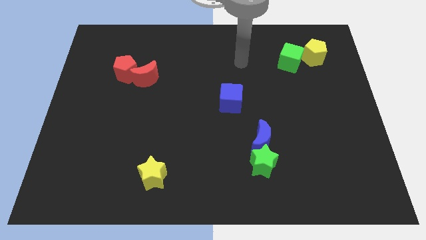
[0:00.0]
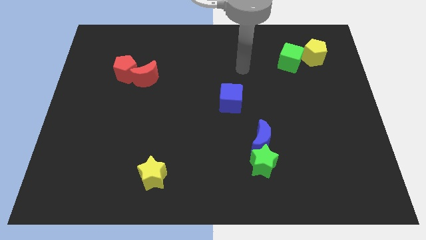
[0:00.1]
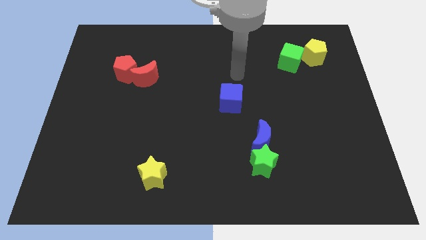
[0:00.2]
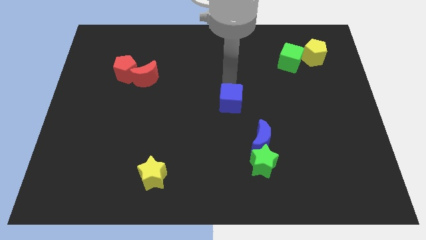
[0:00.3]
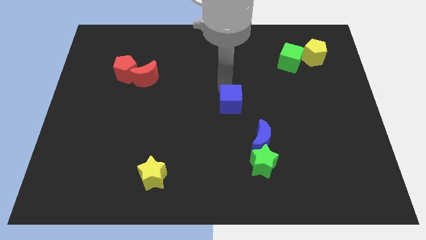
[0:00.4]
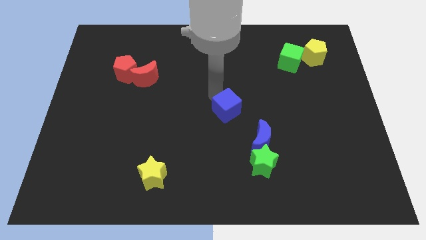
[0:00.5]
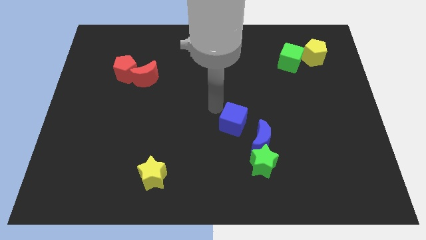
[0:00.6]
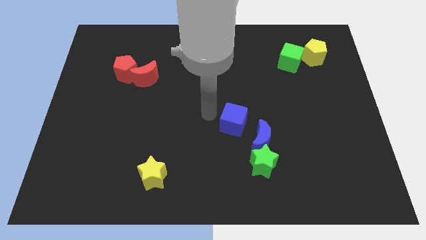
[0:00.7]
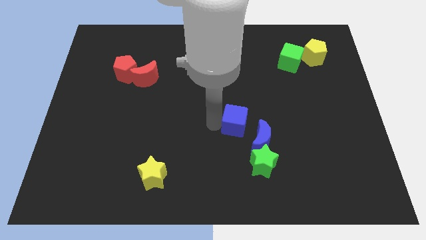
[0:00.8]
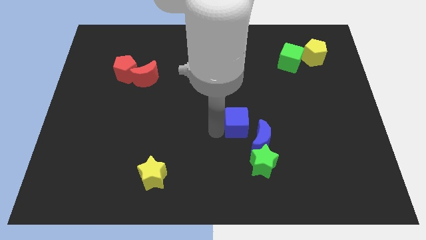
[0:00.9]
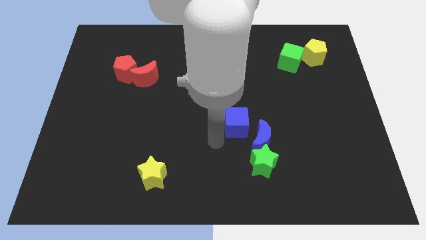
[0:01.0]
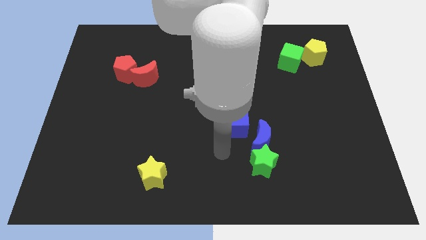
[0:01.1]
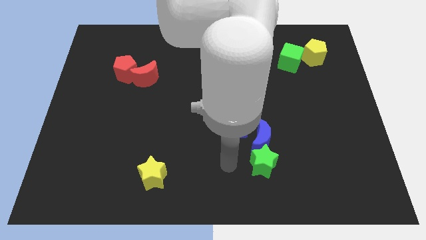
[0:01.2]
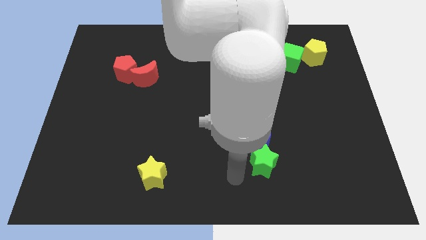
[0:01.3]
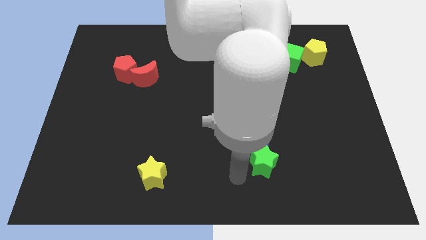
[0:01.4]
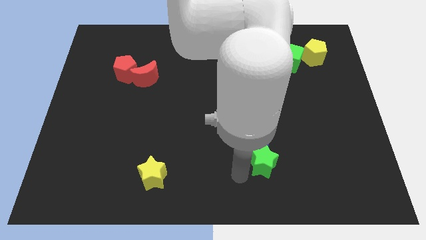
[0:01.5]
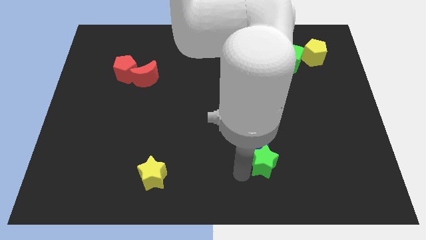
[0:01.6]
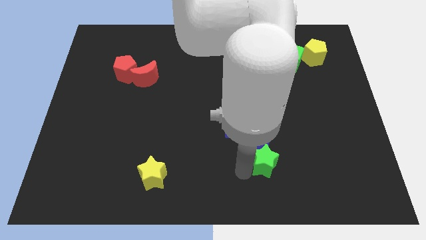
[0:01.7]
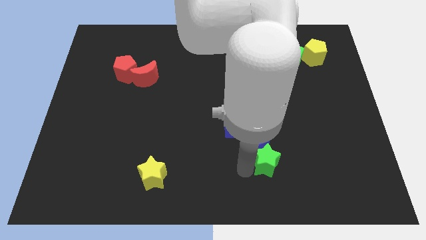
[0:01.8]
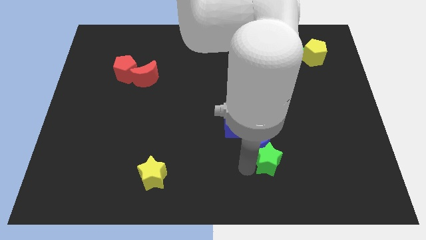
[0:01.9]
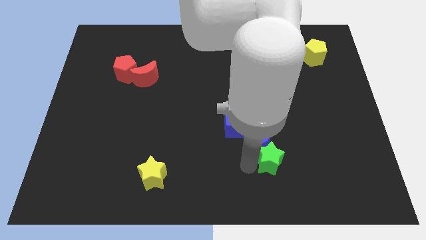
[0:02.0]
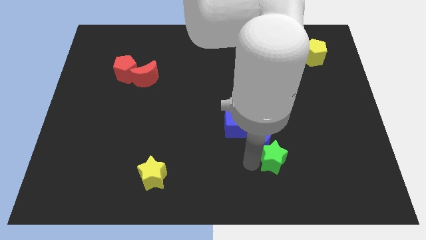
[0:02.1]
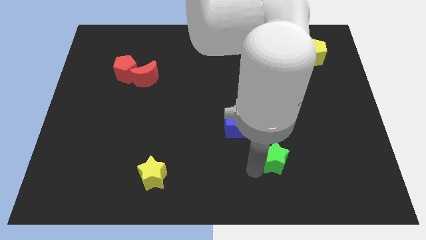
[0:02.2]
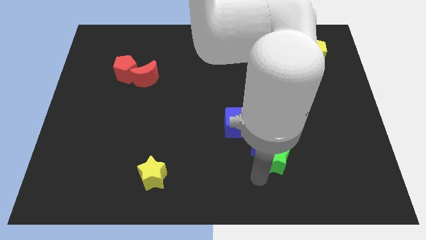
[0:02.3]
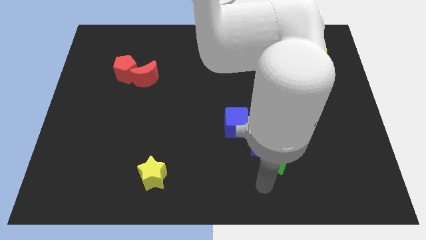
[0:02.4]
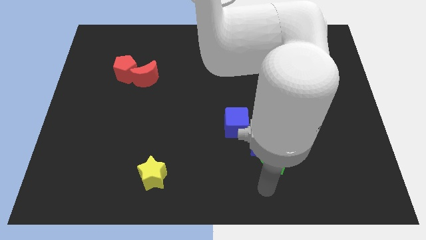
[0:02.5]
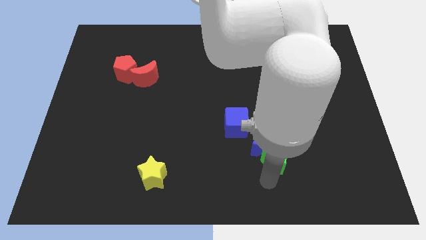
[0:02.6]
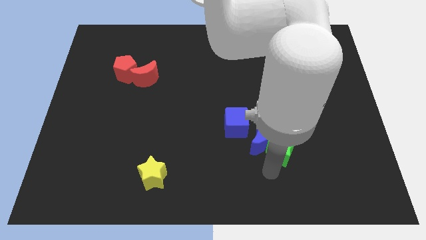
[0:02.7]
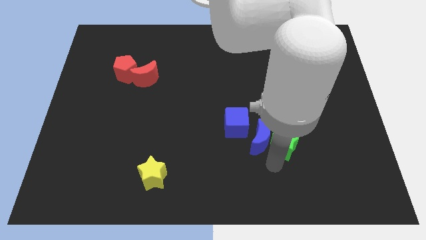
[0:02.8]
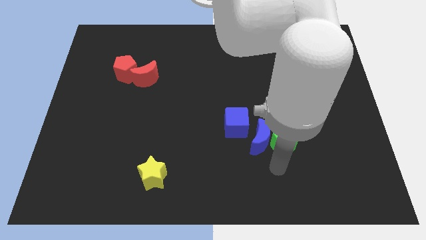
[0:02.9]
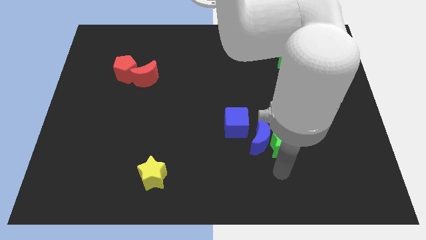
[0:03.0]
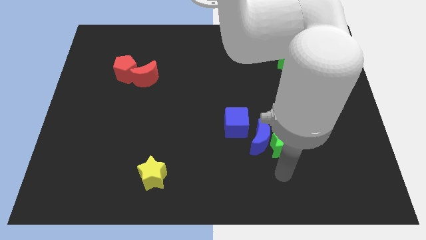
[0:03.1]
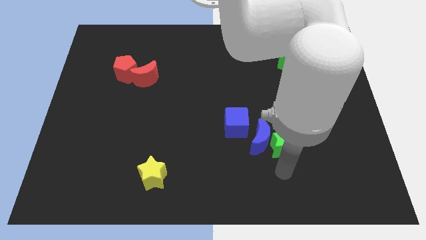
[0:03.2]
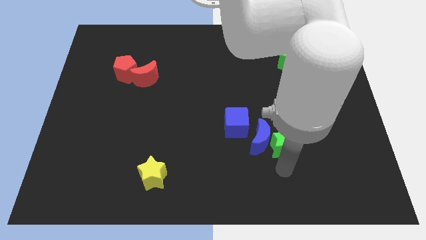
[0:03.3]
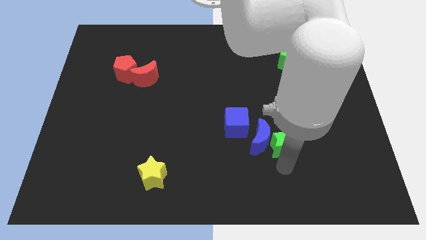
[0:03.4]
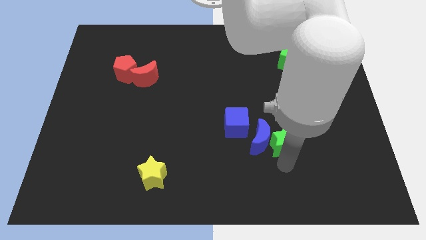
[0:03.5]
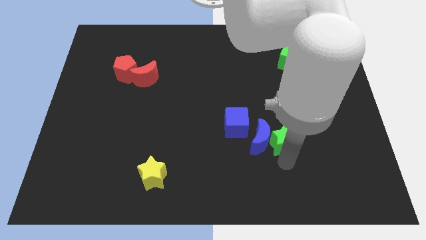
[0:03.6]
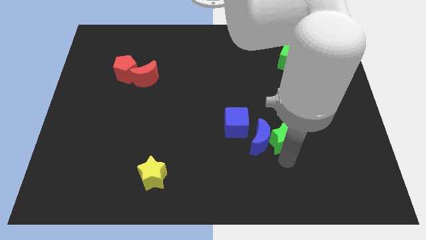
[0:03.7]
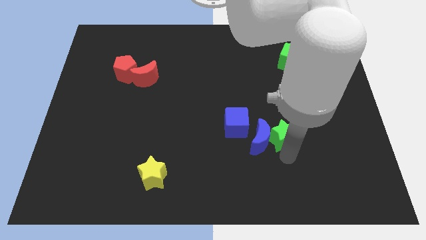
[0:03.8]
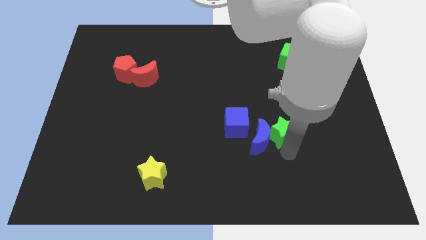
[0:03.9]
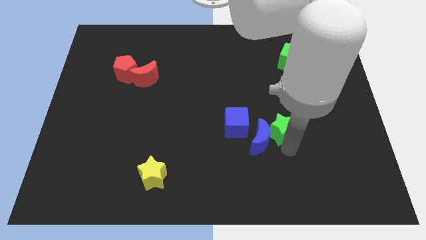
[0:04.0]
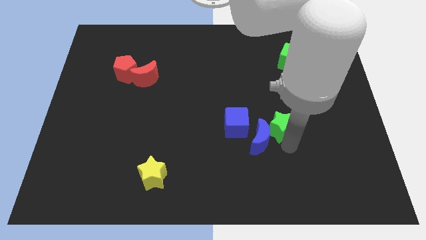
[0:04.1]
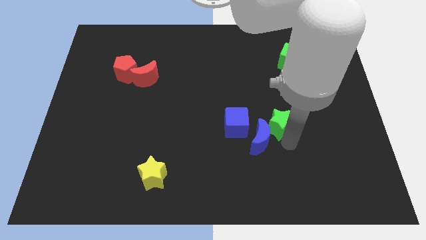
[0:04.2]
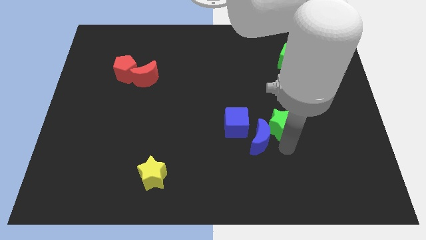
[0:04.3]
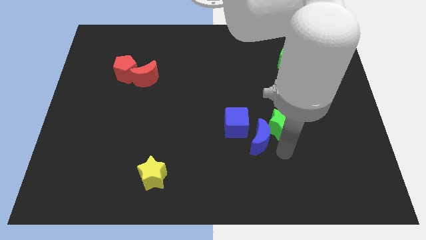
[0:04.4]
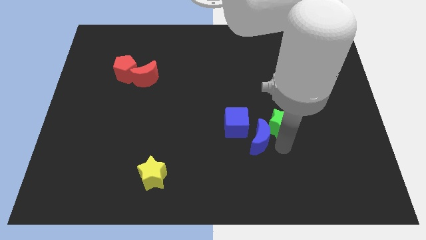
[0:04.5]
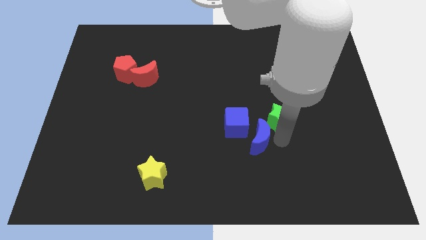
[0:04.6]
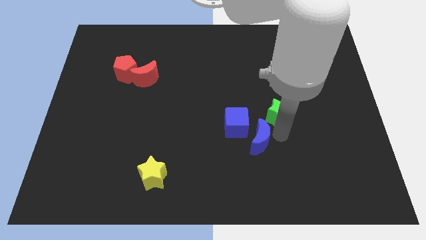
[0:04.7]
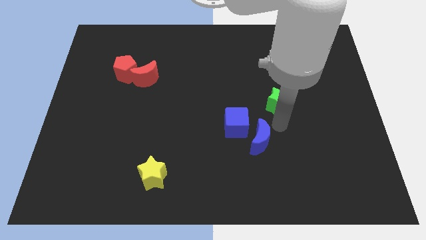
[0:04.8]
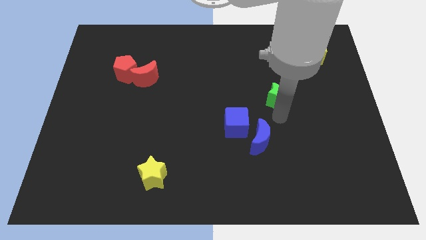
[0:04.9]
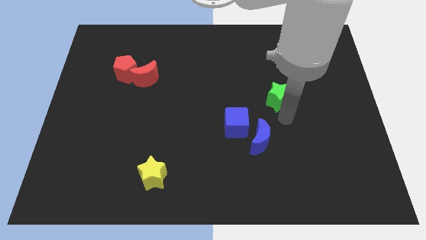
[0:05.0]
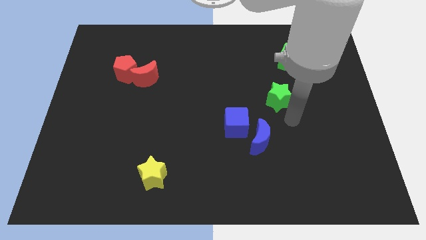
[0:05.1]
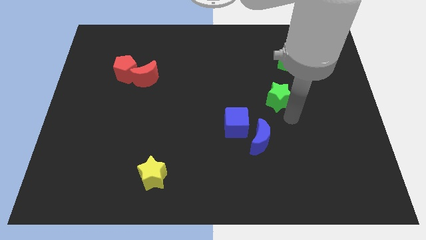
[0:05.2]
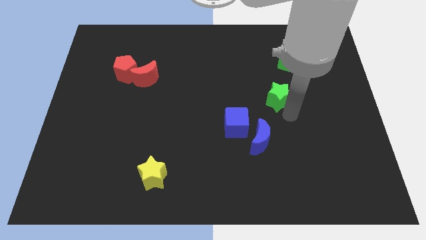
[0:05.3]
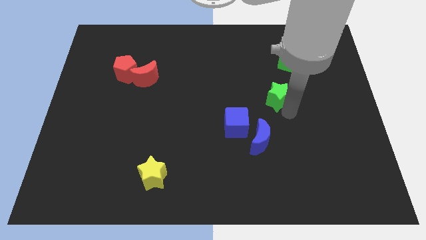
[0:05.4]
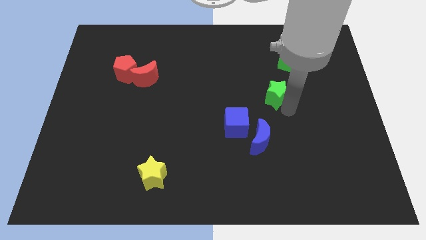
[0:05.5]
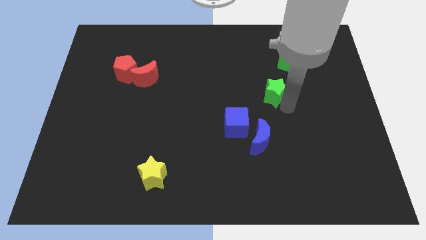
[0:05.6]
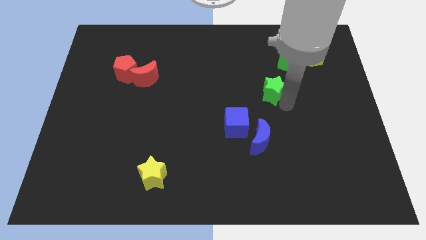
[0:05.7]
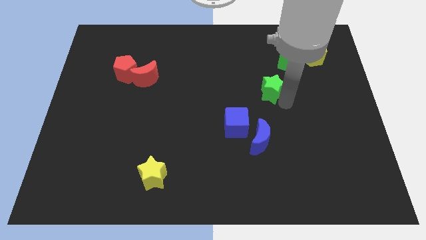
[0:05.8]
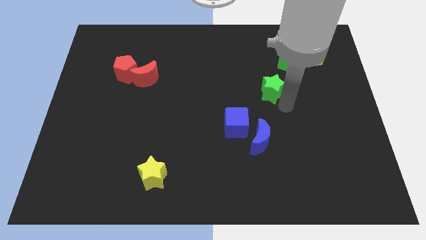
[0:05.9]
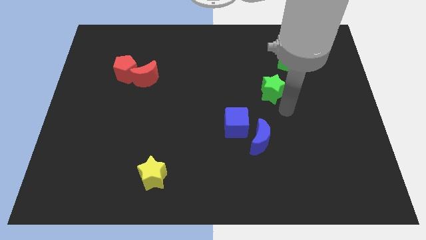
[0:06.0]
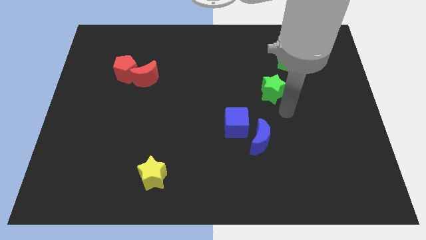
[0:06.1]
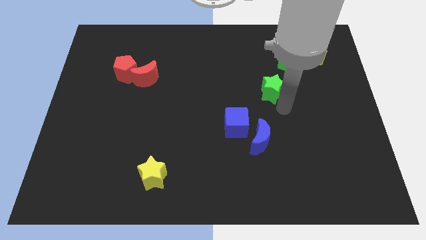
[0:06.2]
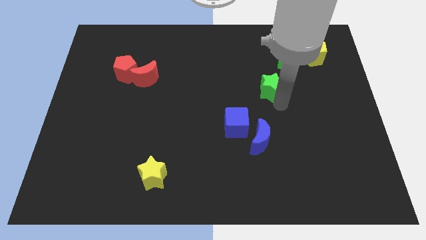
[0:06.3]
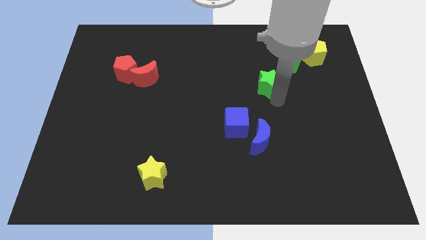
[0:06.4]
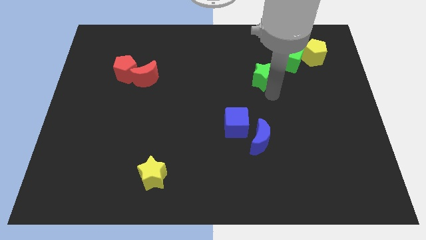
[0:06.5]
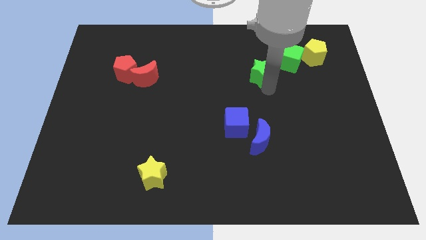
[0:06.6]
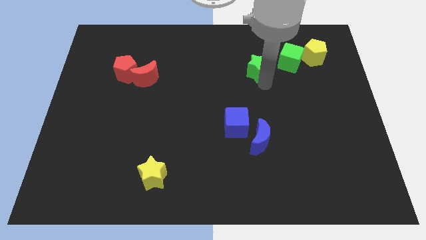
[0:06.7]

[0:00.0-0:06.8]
move the green star to the left of the green cube
